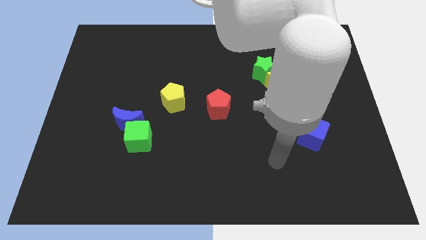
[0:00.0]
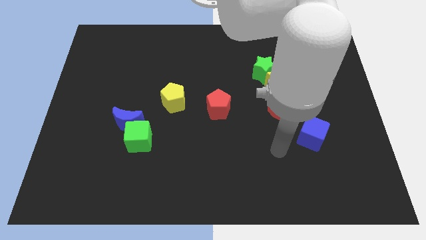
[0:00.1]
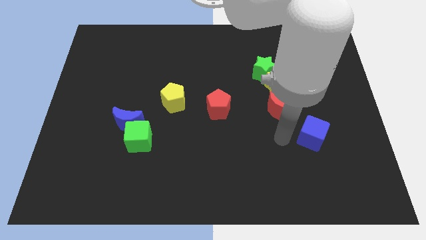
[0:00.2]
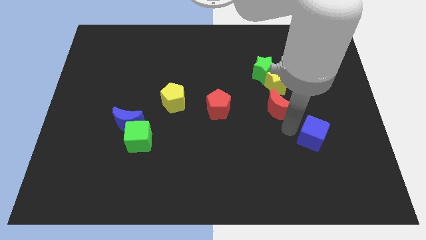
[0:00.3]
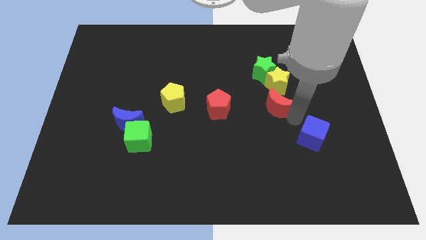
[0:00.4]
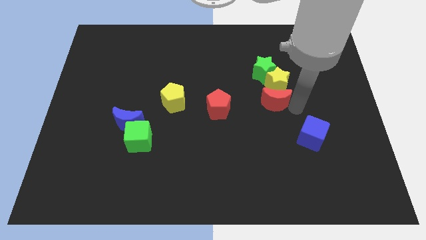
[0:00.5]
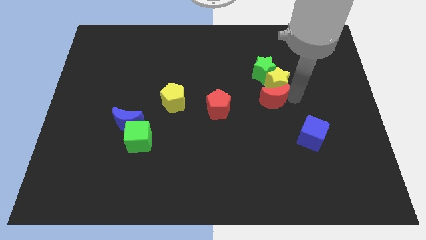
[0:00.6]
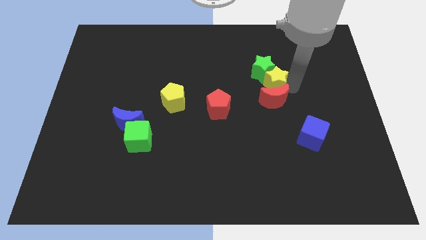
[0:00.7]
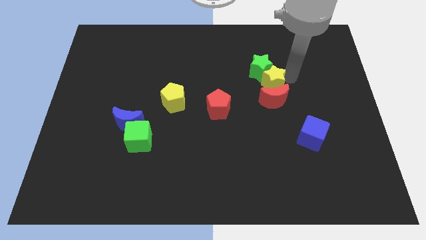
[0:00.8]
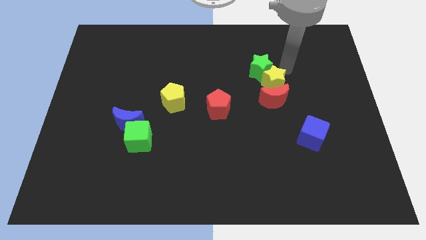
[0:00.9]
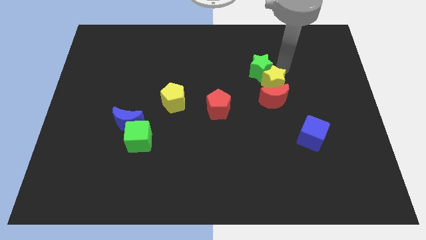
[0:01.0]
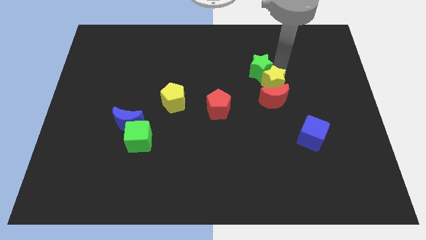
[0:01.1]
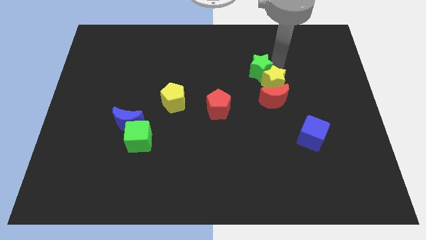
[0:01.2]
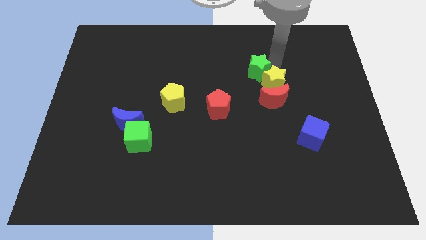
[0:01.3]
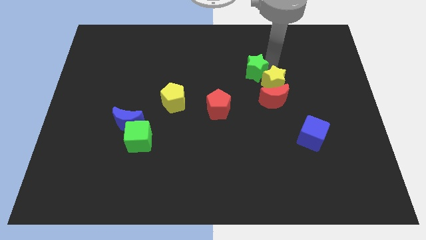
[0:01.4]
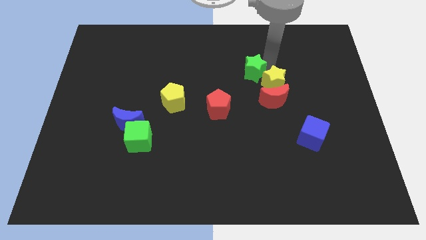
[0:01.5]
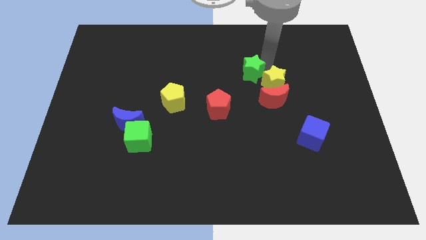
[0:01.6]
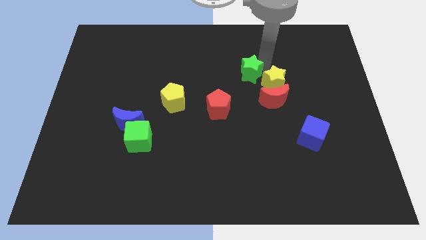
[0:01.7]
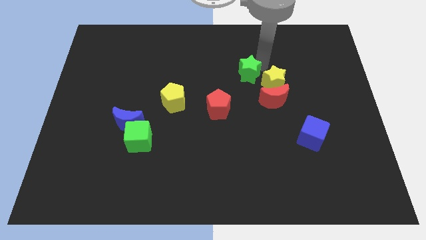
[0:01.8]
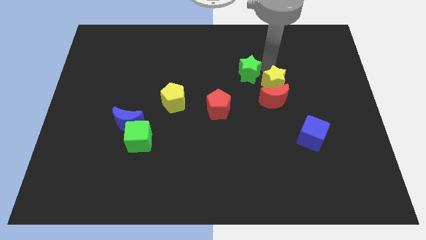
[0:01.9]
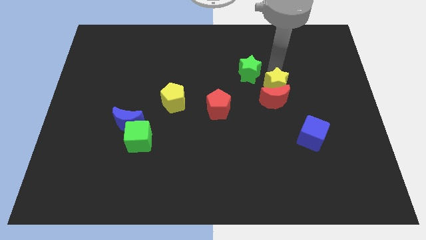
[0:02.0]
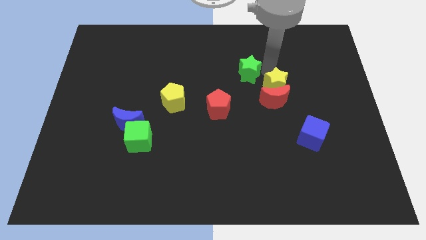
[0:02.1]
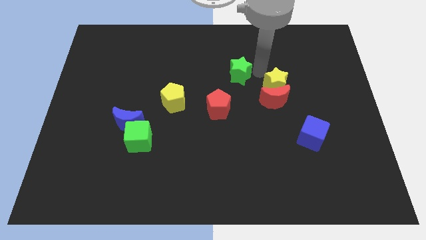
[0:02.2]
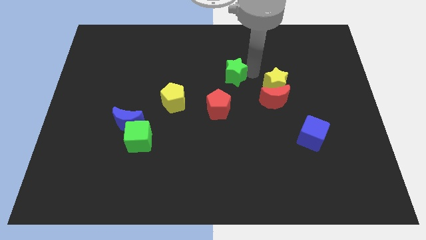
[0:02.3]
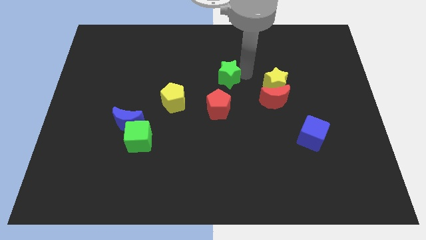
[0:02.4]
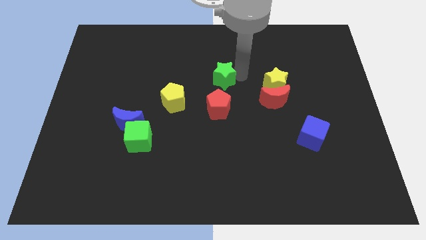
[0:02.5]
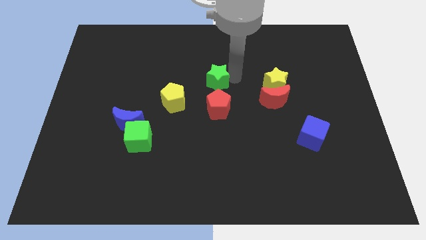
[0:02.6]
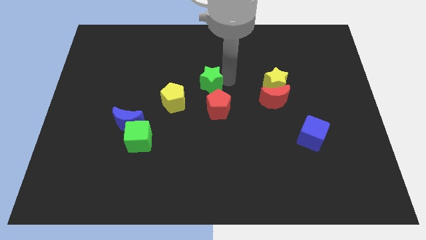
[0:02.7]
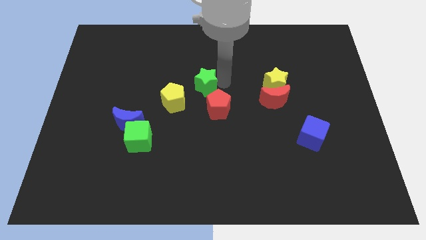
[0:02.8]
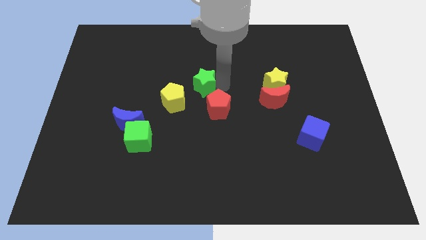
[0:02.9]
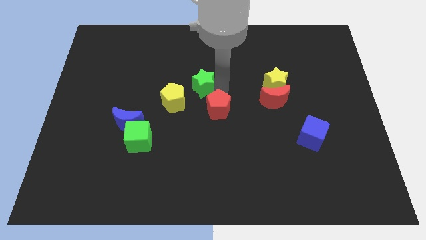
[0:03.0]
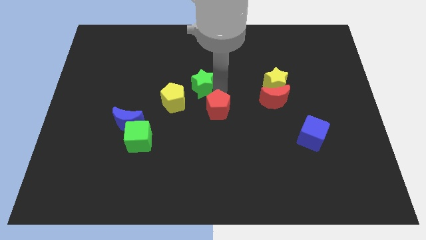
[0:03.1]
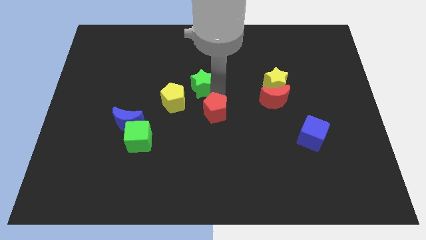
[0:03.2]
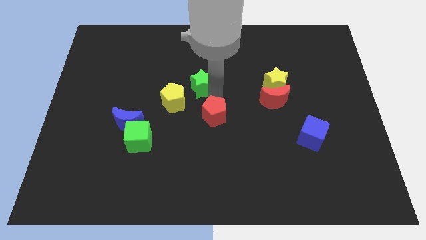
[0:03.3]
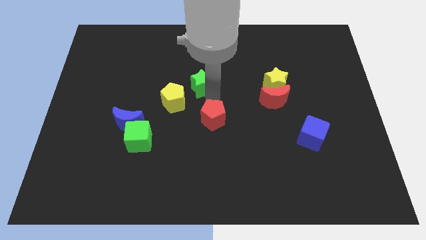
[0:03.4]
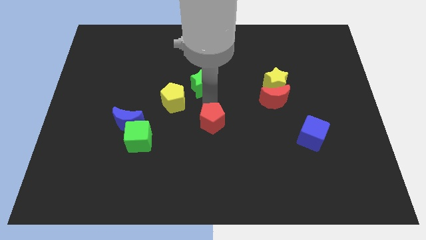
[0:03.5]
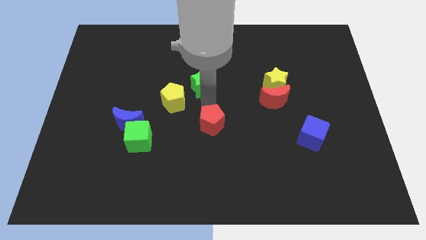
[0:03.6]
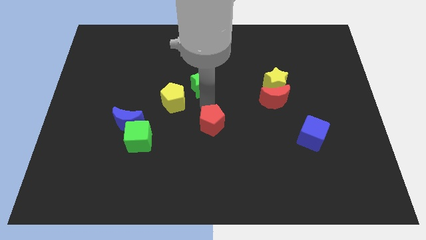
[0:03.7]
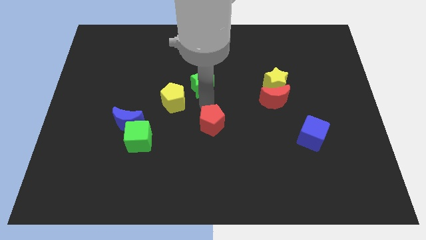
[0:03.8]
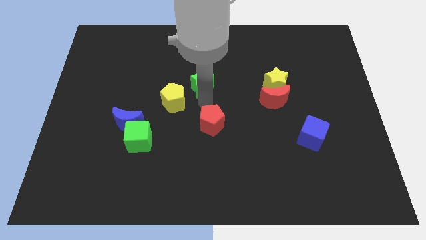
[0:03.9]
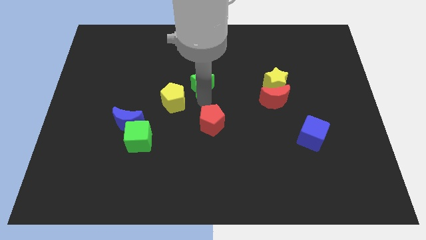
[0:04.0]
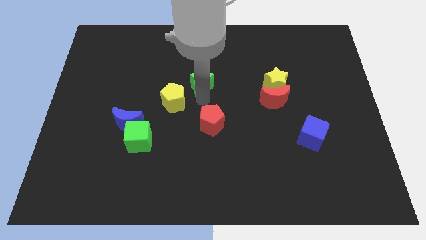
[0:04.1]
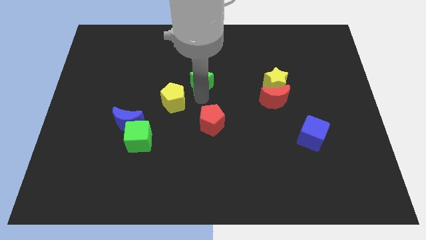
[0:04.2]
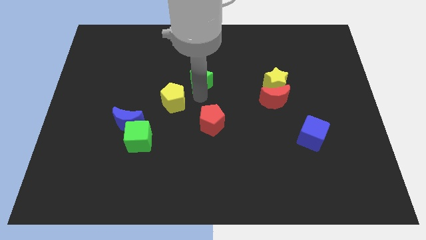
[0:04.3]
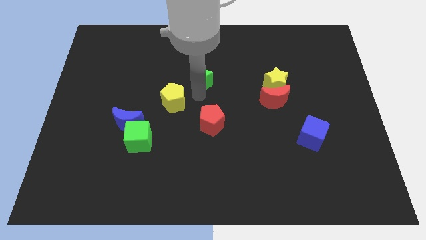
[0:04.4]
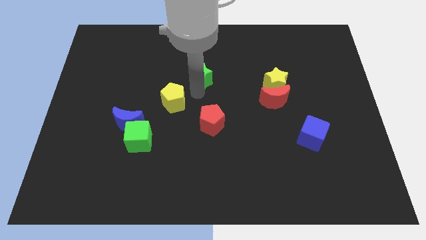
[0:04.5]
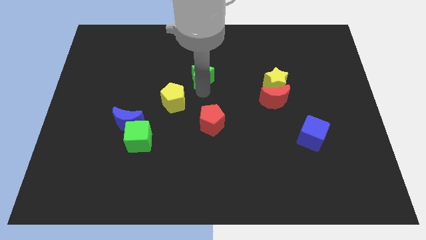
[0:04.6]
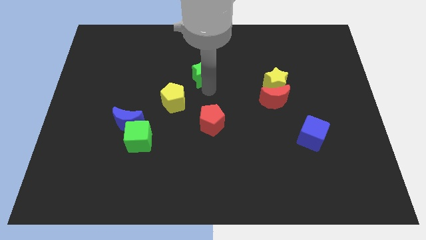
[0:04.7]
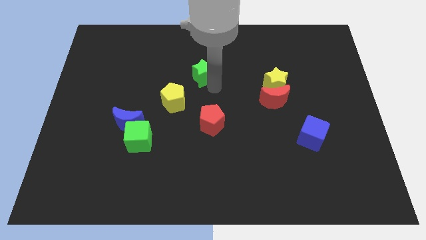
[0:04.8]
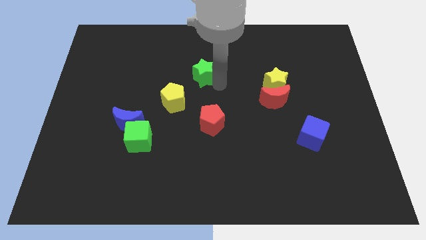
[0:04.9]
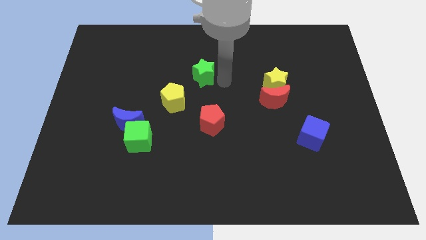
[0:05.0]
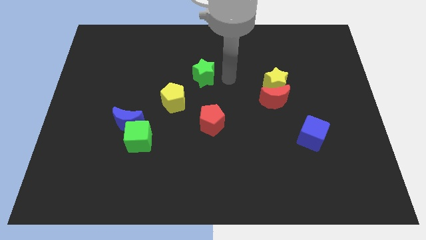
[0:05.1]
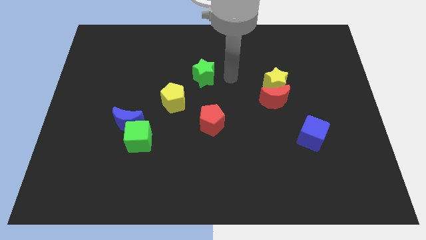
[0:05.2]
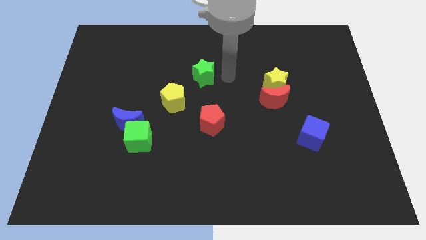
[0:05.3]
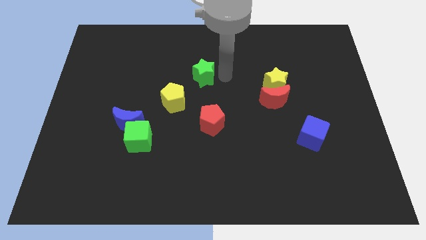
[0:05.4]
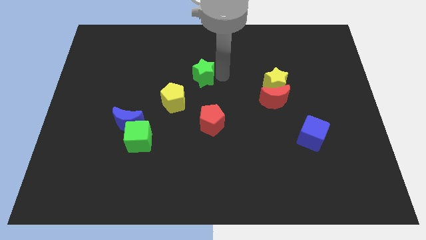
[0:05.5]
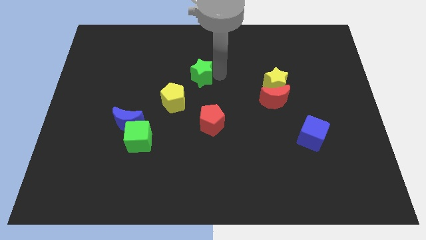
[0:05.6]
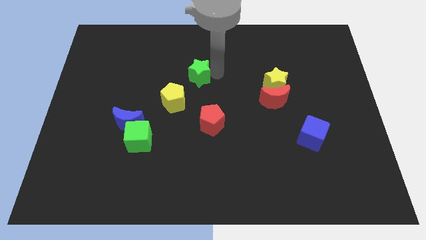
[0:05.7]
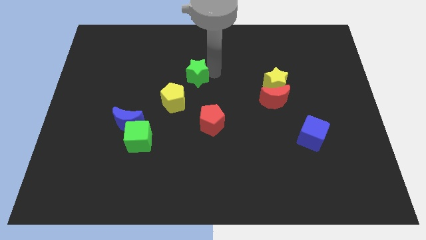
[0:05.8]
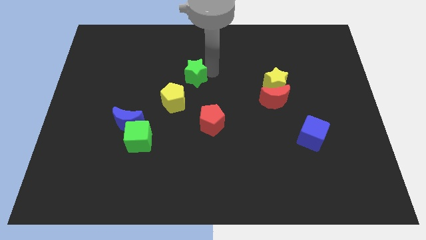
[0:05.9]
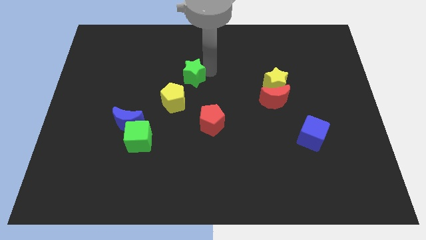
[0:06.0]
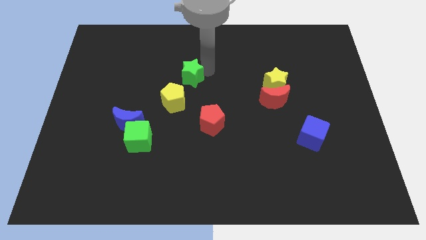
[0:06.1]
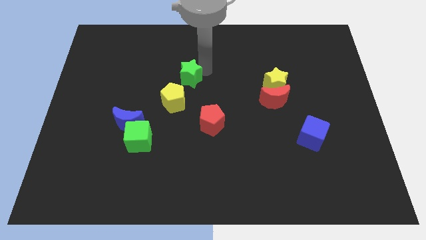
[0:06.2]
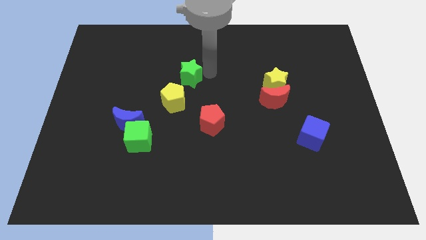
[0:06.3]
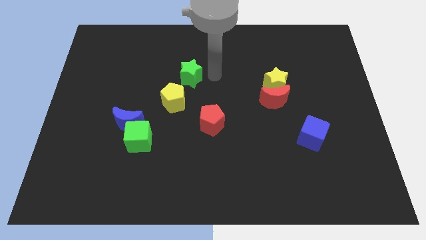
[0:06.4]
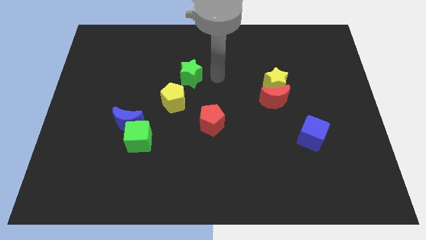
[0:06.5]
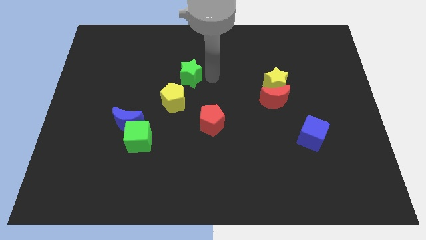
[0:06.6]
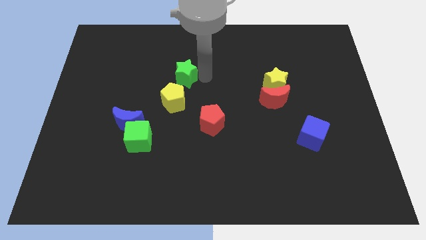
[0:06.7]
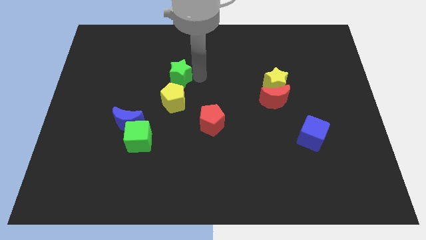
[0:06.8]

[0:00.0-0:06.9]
slide the green star to the left

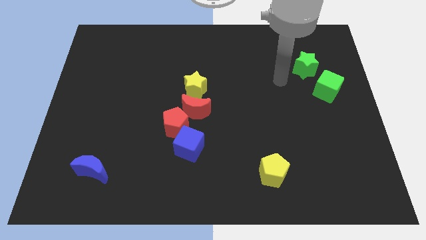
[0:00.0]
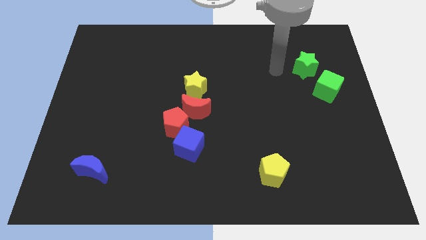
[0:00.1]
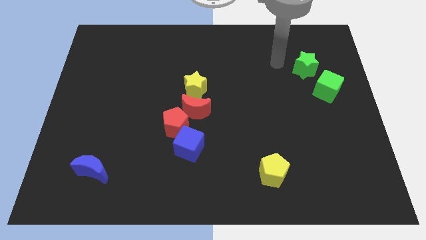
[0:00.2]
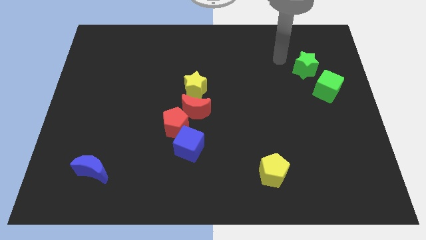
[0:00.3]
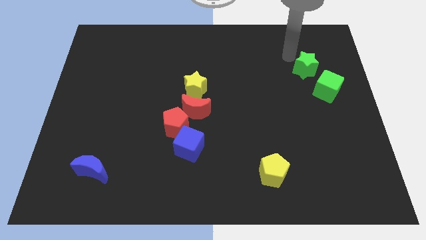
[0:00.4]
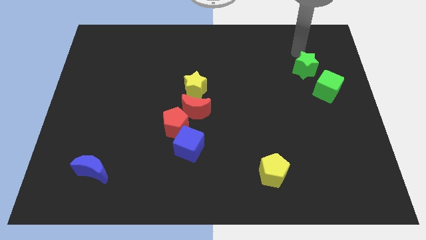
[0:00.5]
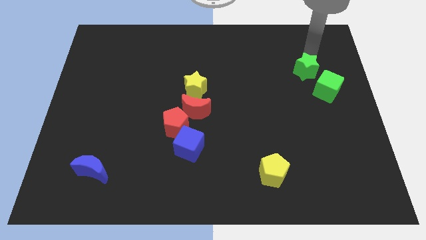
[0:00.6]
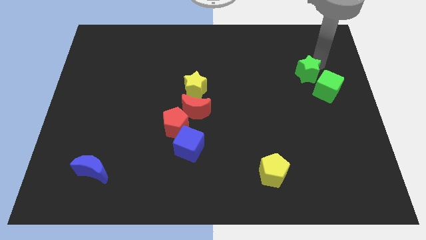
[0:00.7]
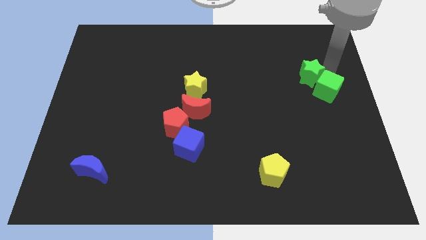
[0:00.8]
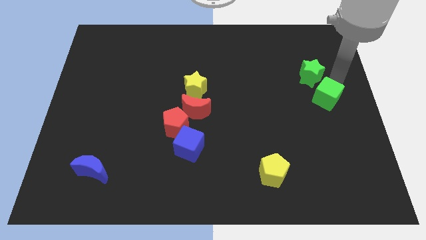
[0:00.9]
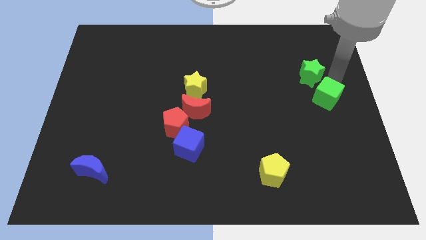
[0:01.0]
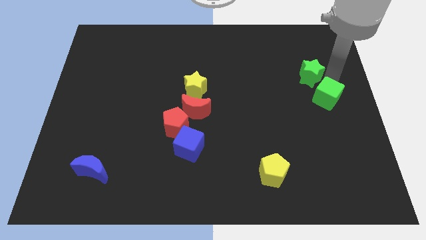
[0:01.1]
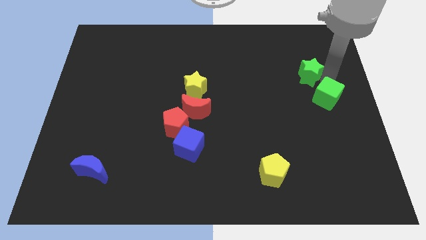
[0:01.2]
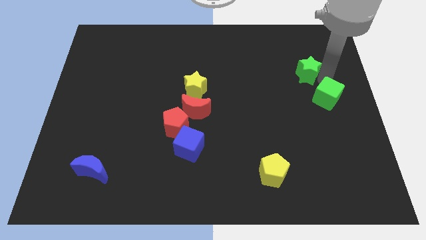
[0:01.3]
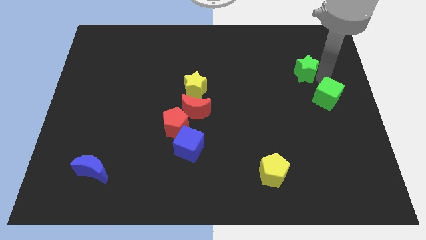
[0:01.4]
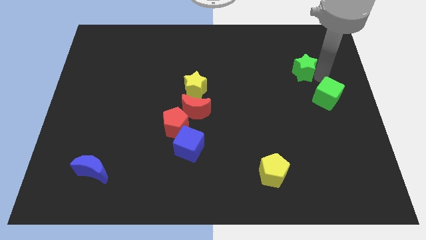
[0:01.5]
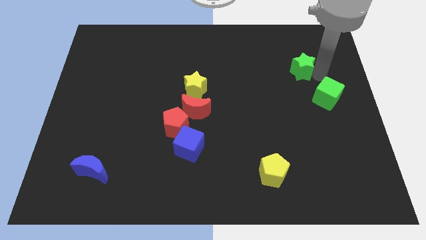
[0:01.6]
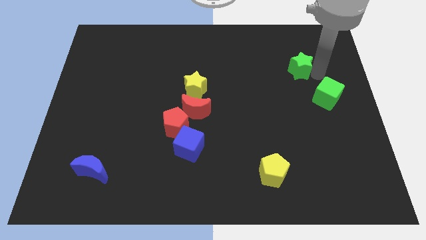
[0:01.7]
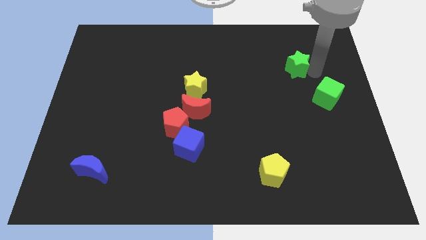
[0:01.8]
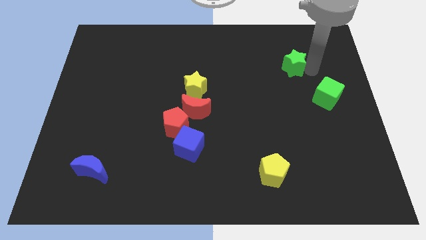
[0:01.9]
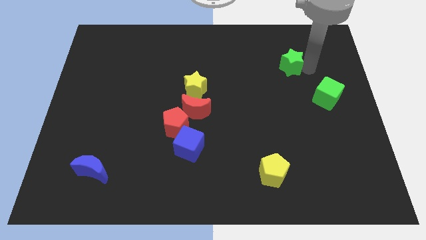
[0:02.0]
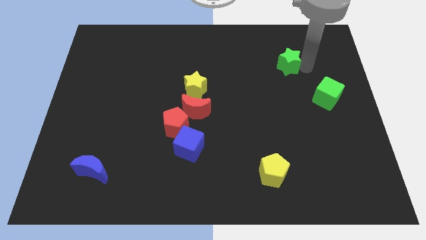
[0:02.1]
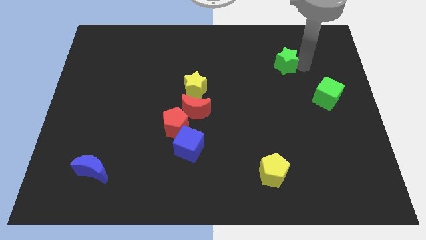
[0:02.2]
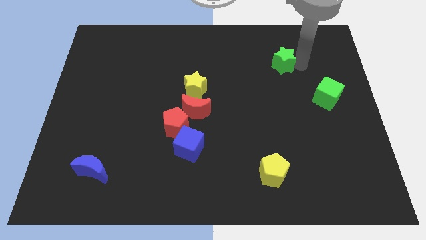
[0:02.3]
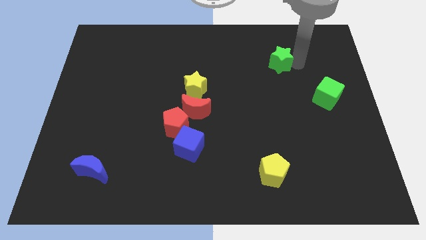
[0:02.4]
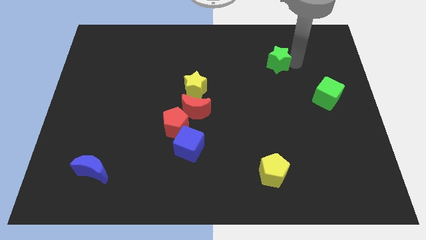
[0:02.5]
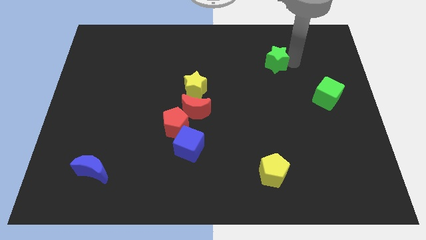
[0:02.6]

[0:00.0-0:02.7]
slide the green star a little left
